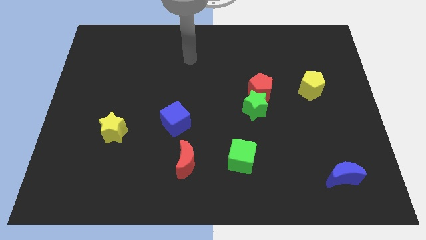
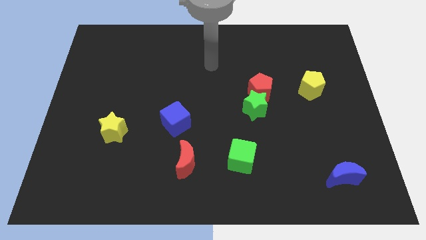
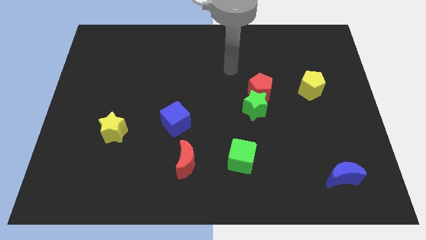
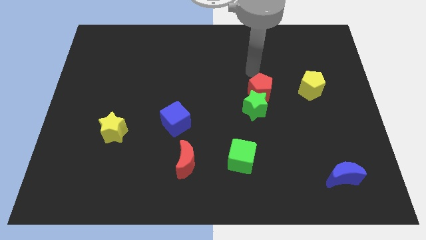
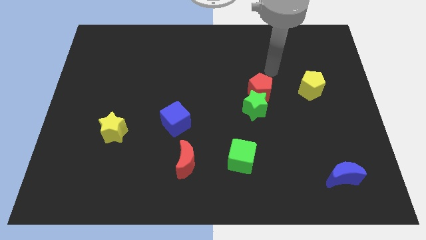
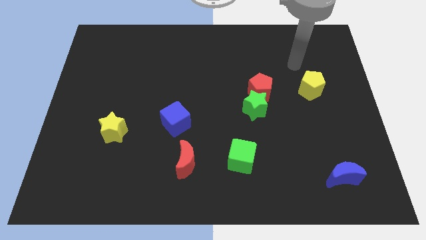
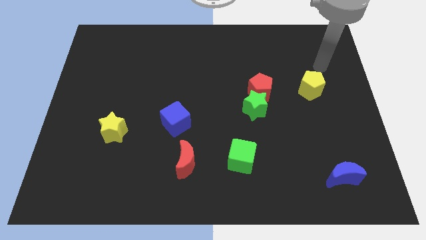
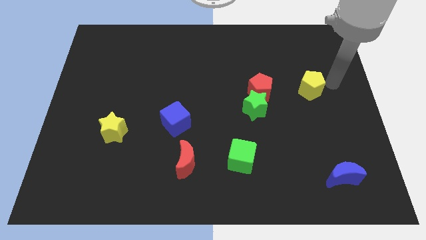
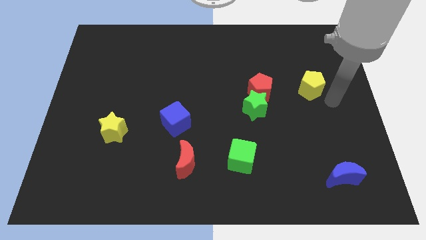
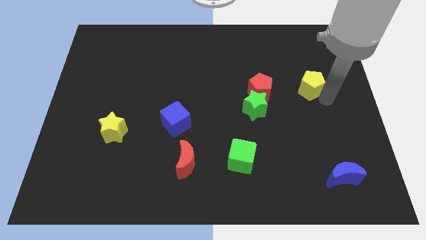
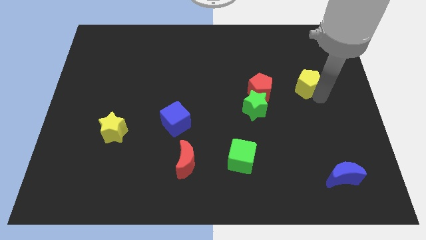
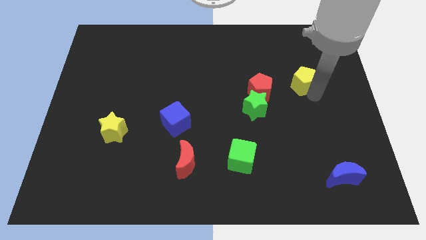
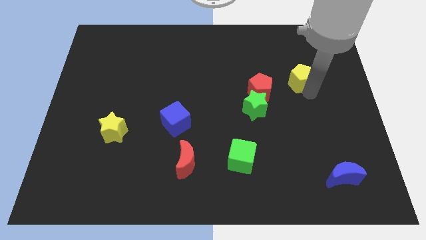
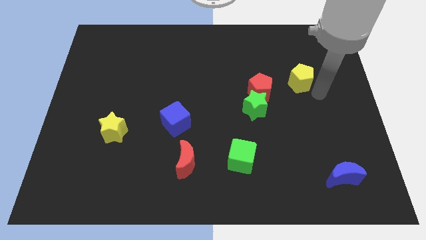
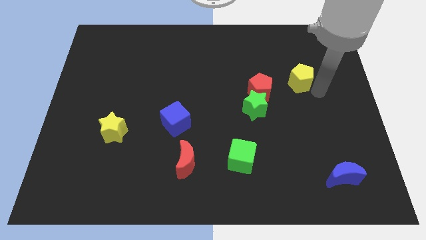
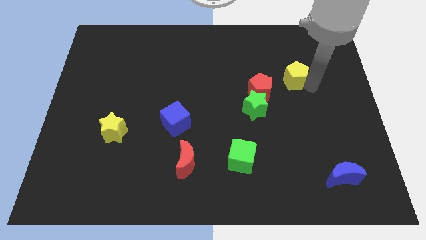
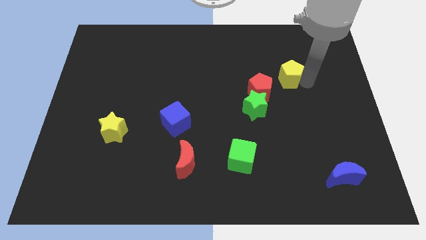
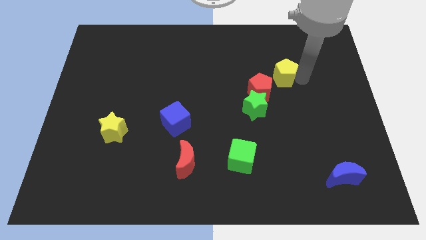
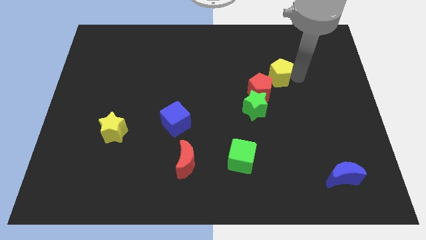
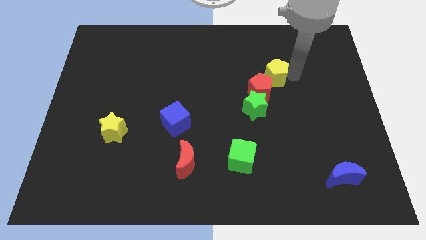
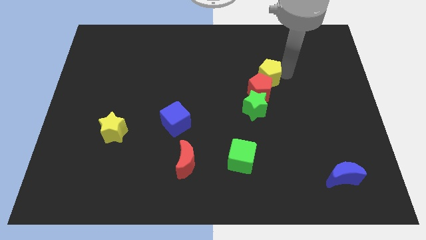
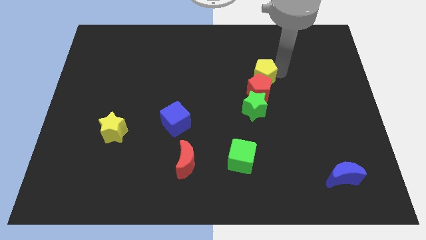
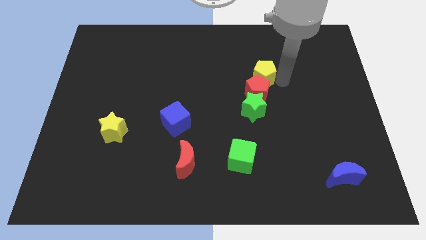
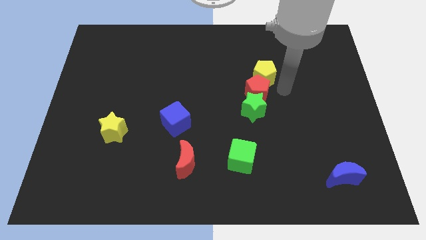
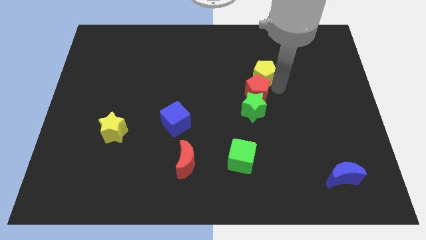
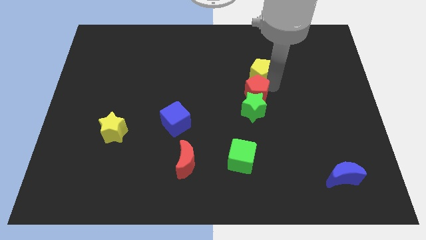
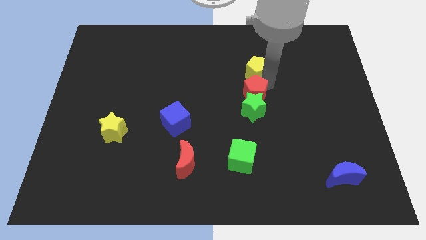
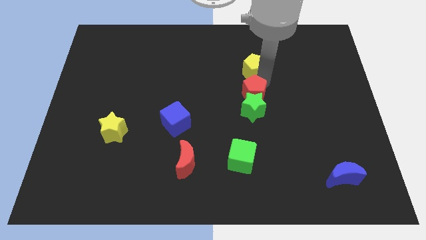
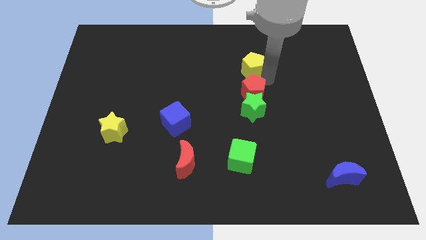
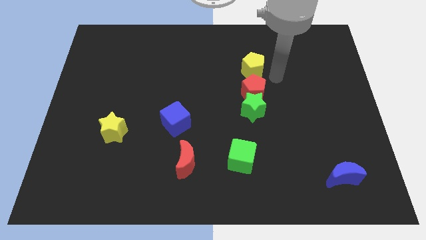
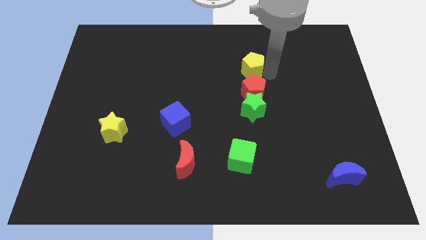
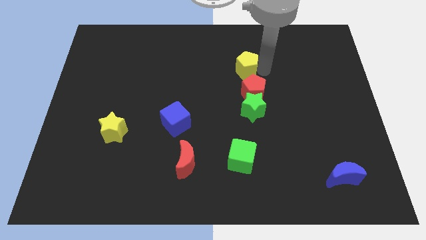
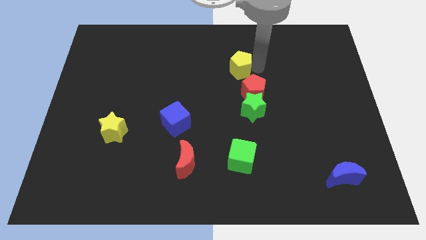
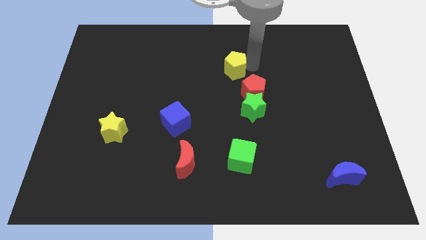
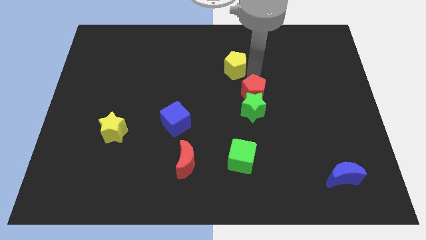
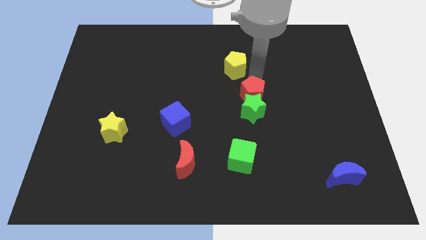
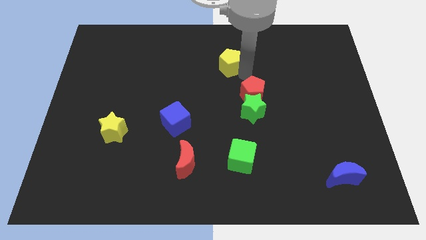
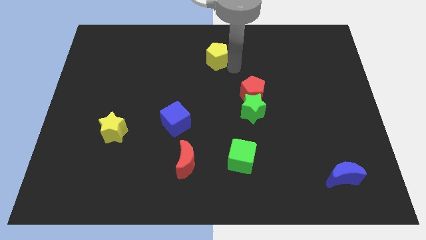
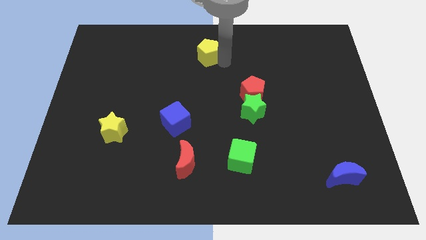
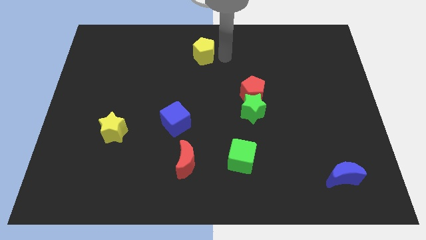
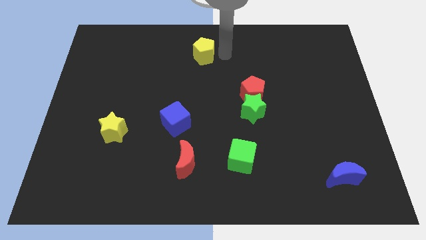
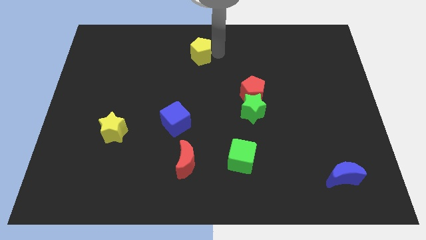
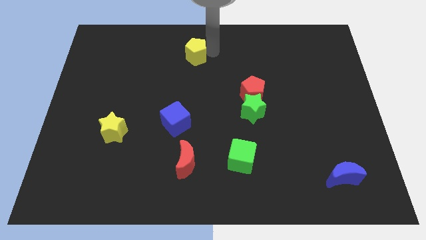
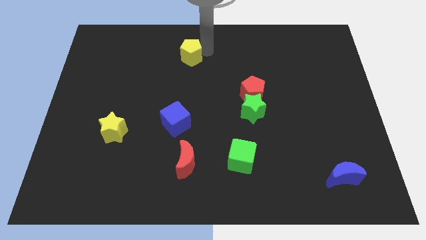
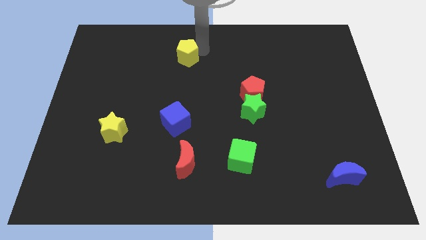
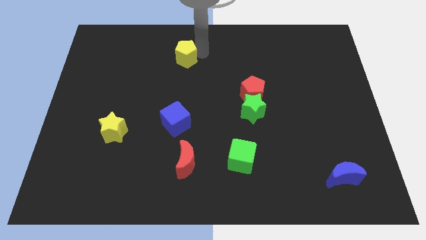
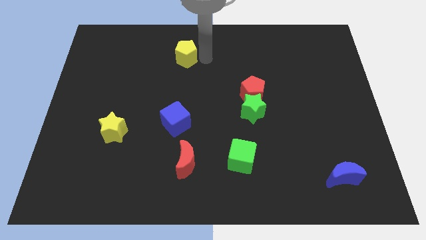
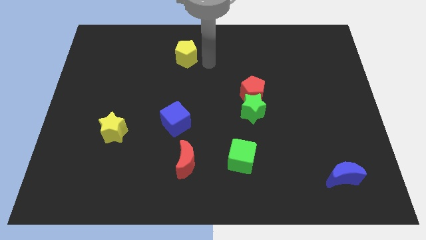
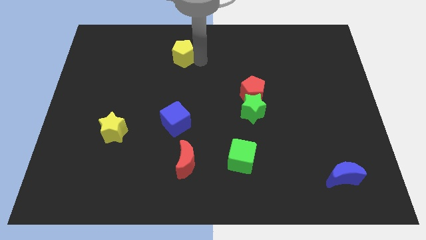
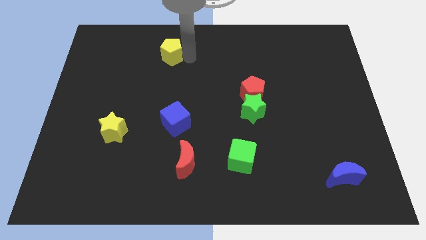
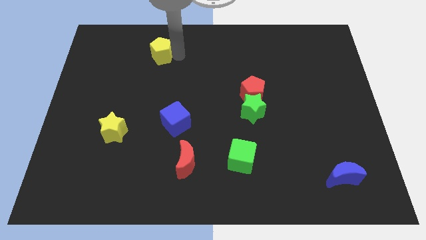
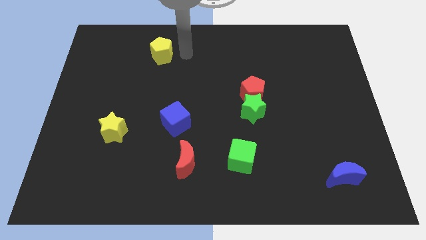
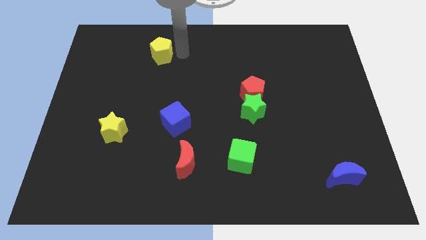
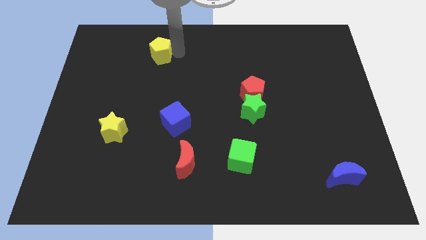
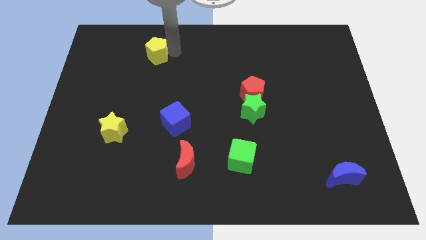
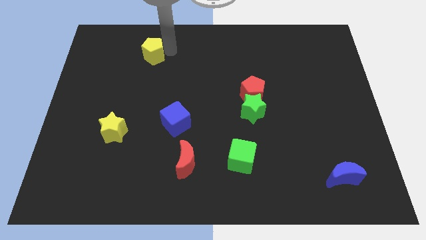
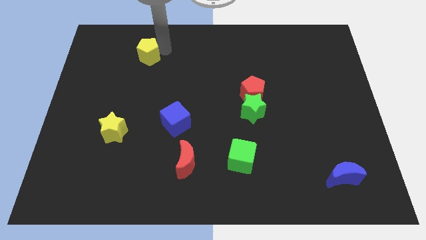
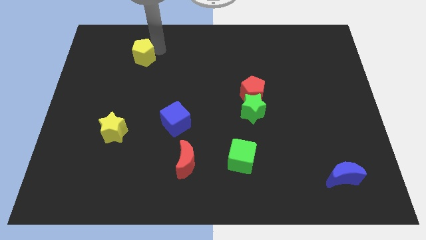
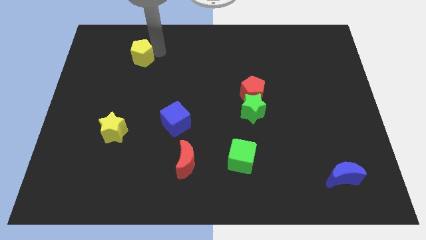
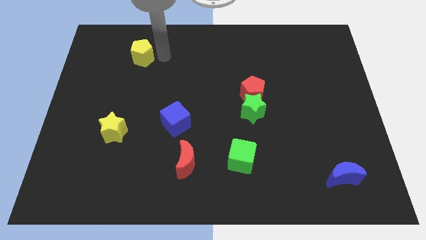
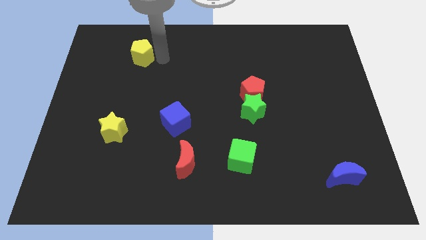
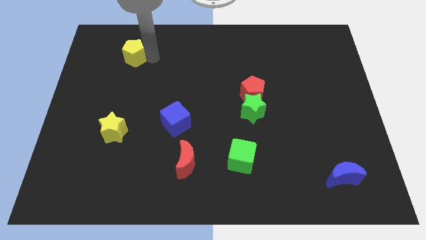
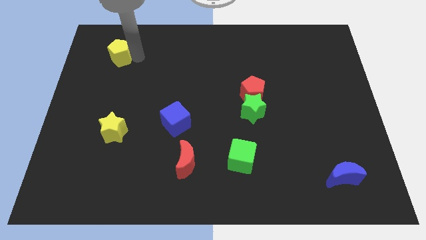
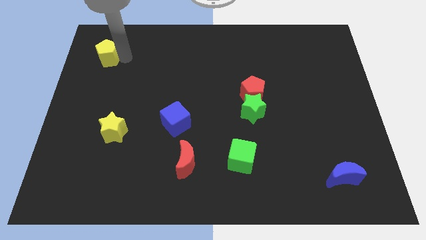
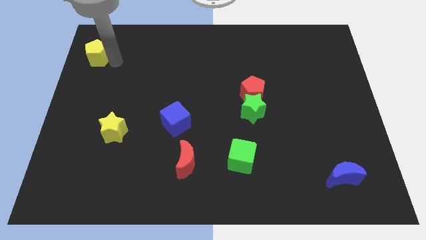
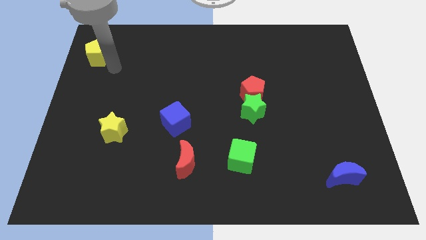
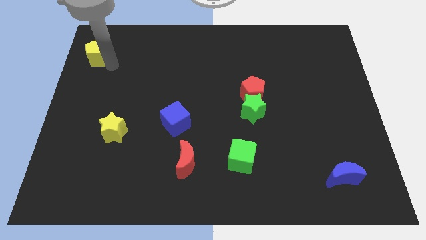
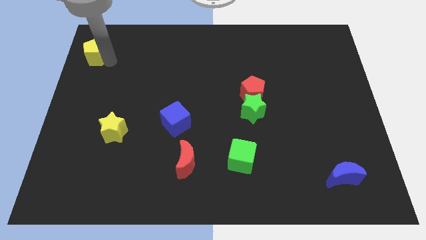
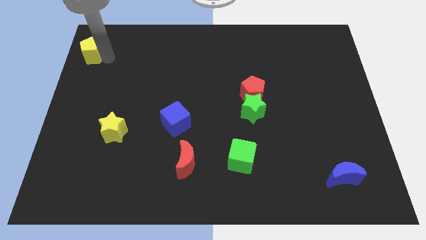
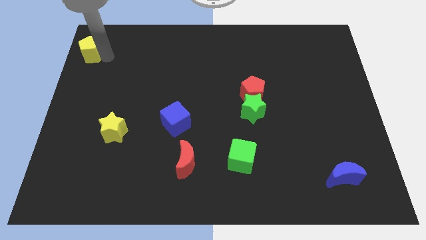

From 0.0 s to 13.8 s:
put the yellow pentagon to the top left corner

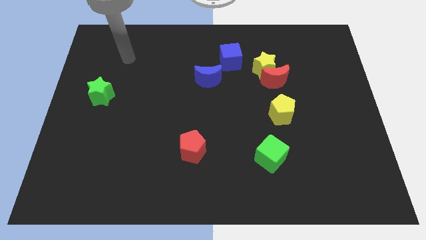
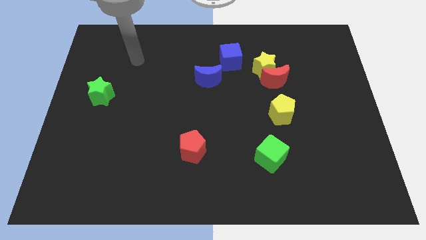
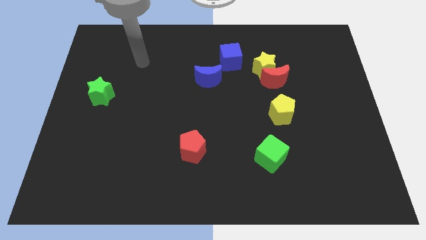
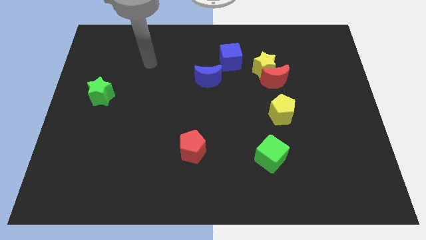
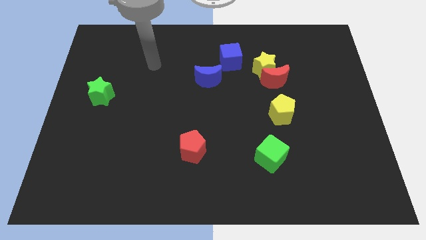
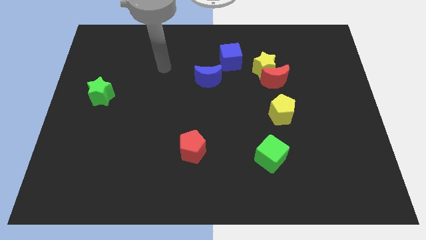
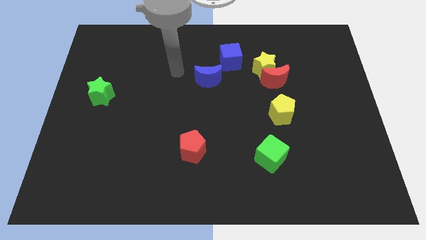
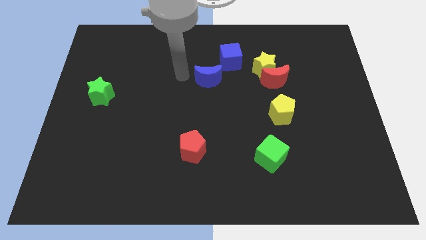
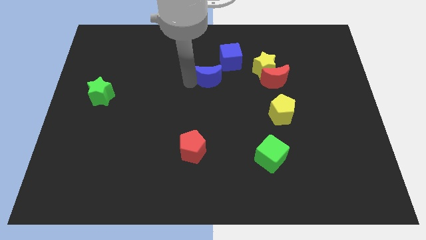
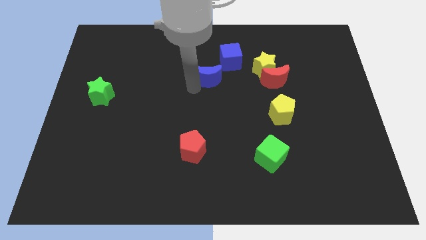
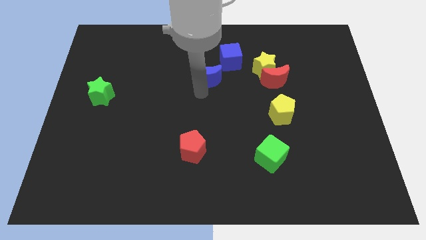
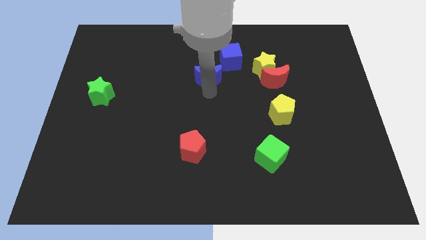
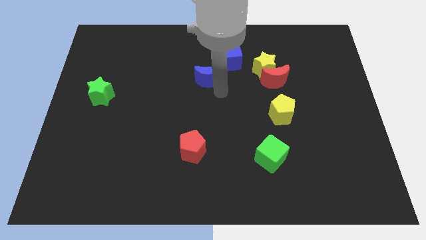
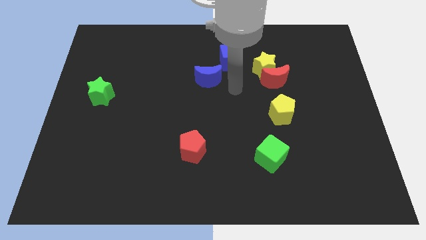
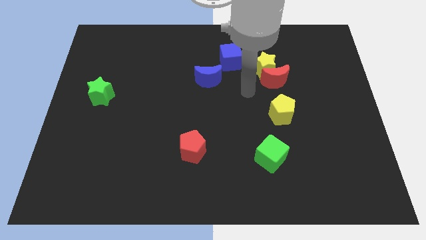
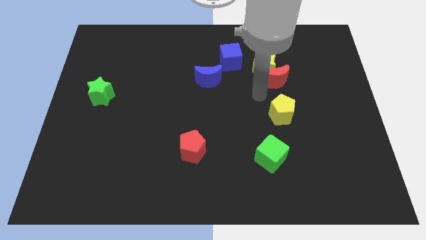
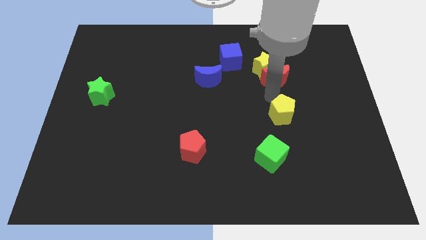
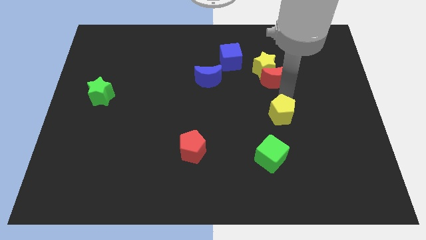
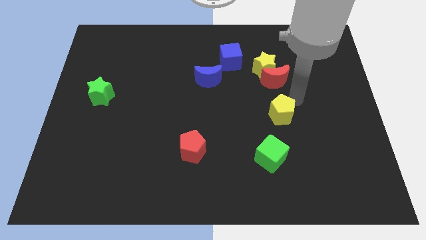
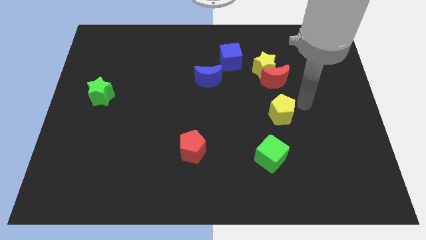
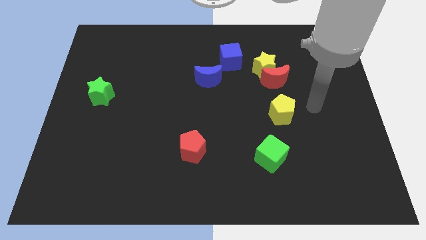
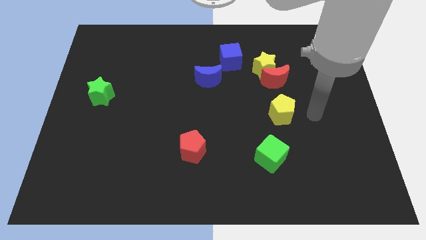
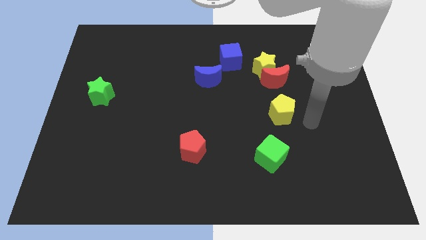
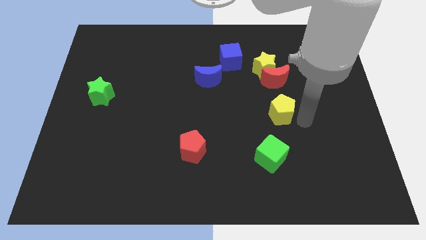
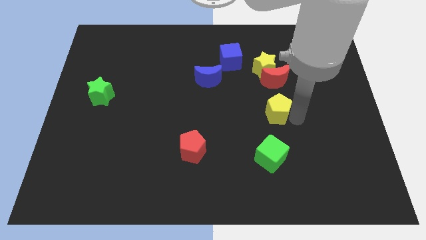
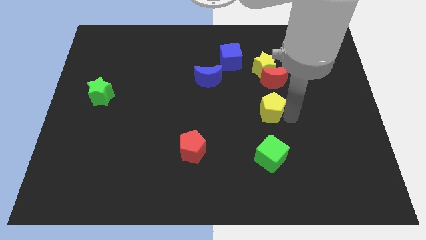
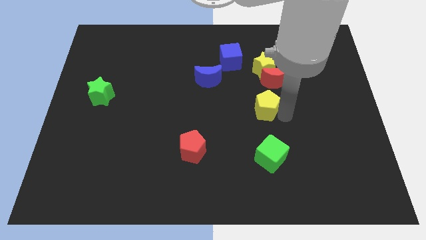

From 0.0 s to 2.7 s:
slide the yellow pentagon to the middle
